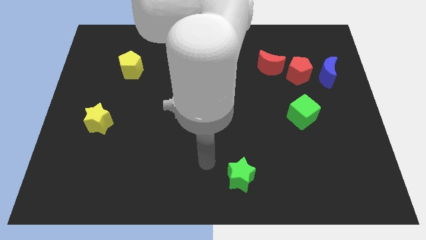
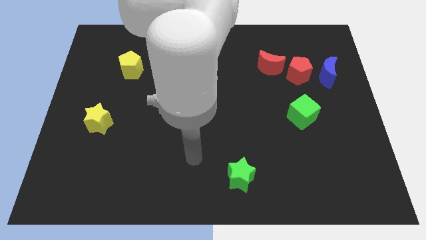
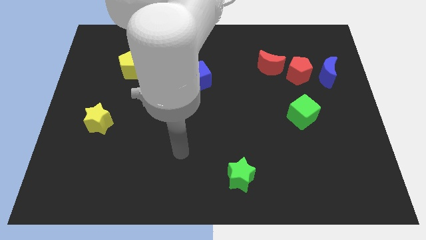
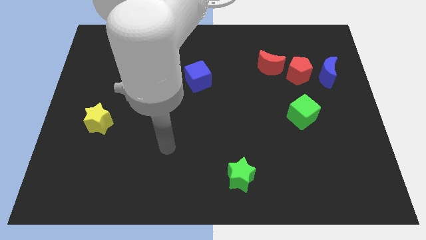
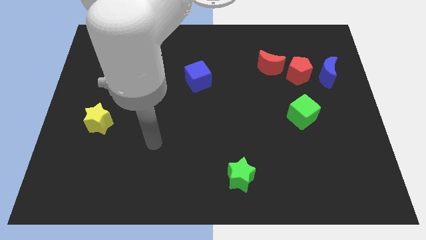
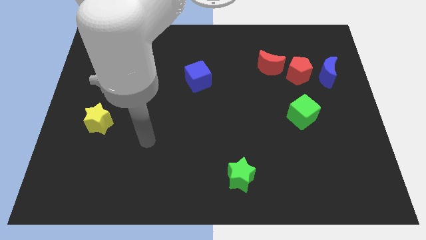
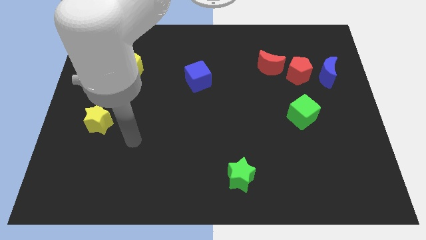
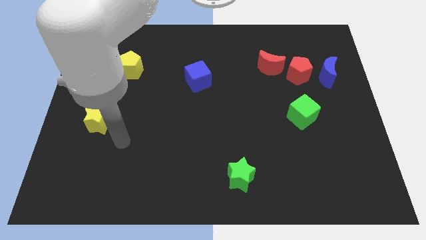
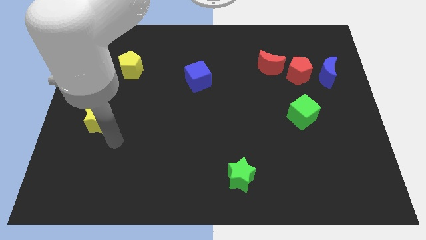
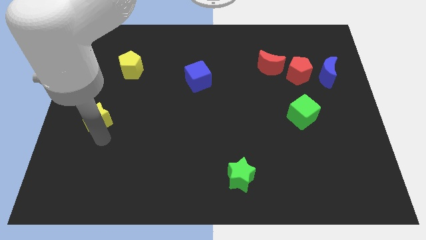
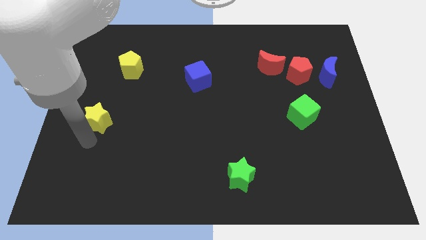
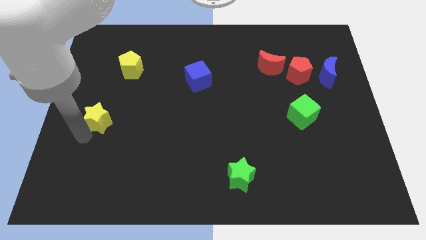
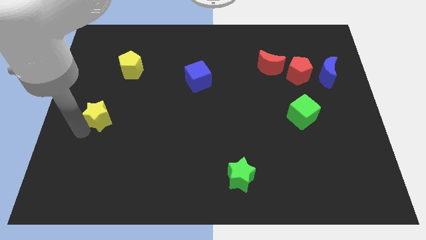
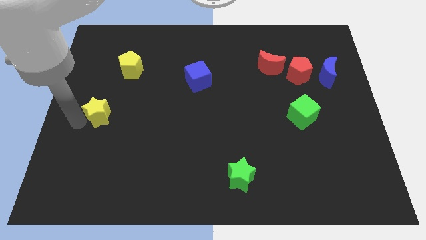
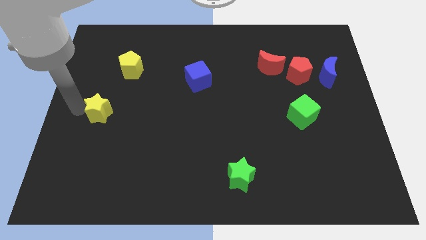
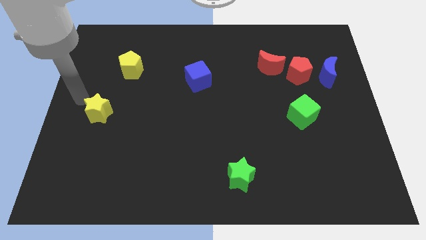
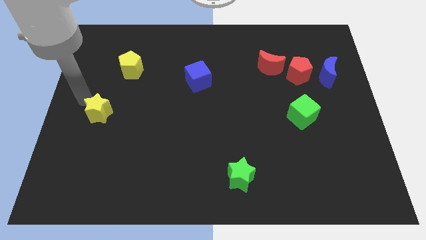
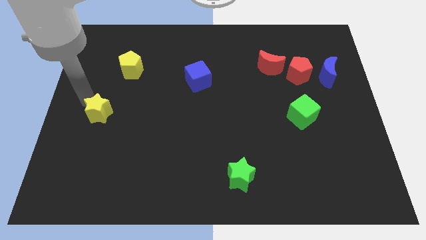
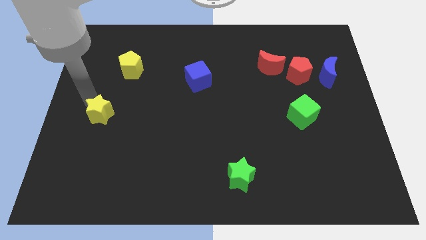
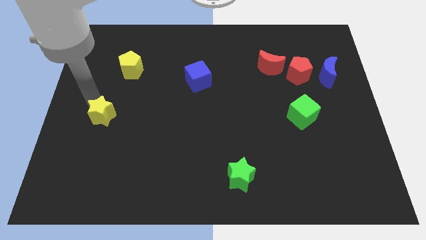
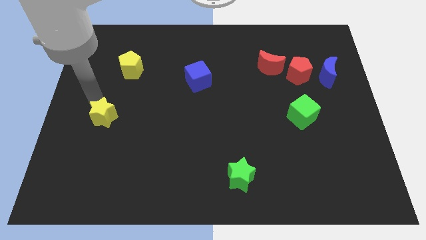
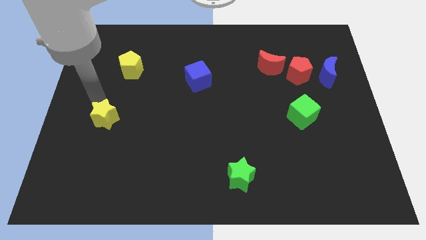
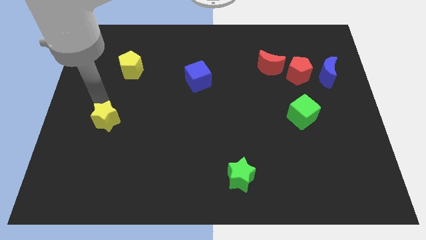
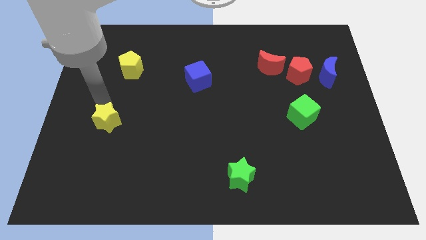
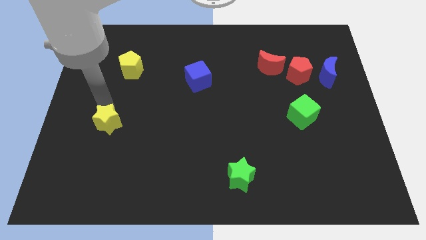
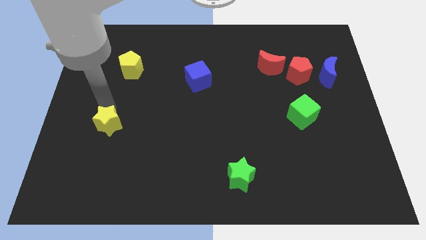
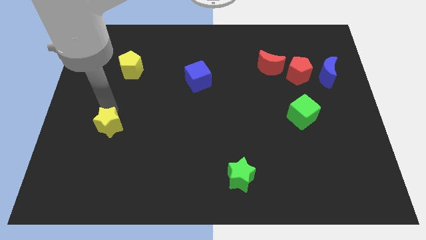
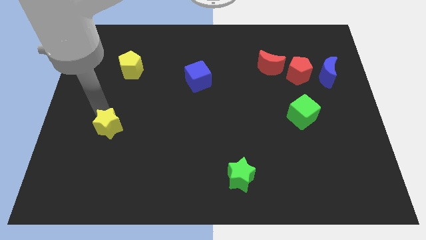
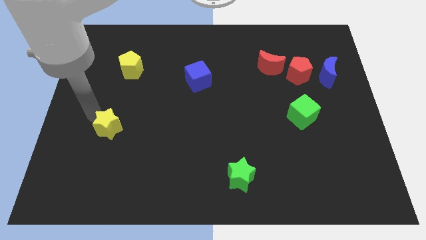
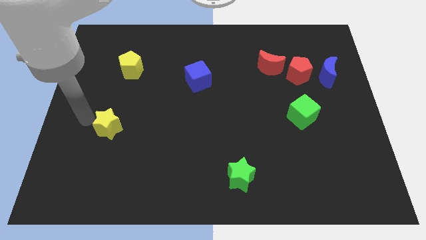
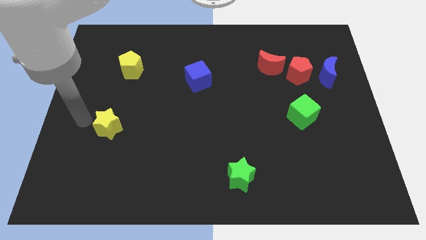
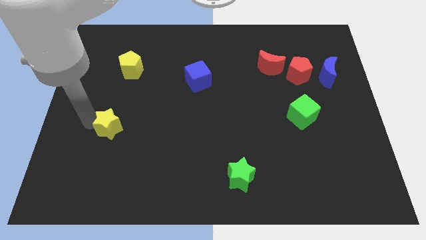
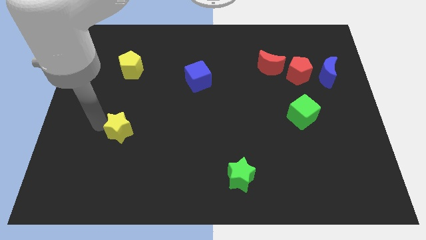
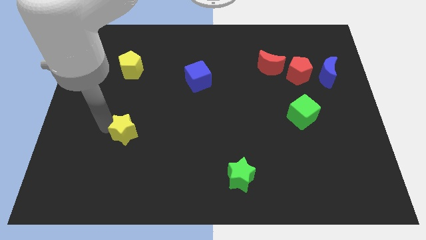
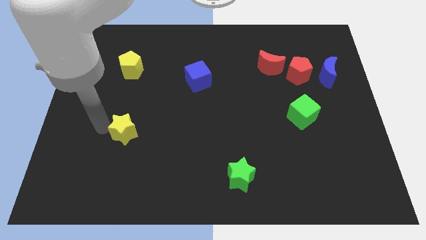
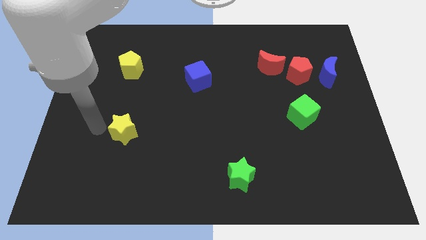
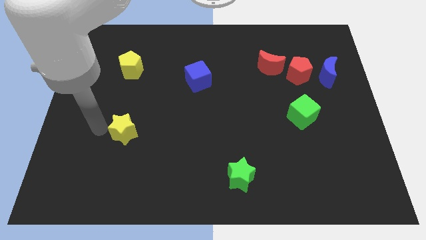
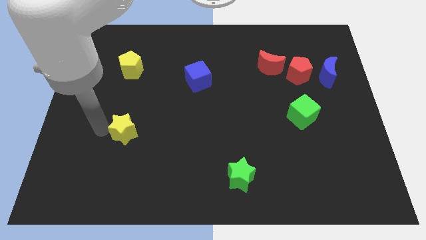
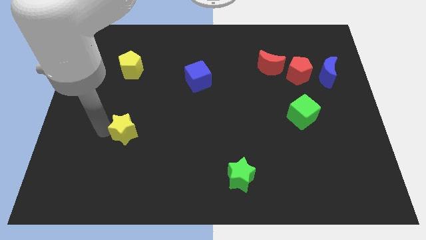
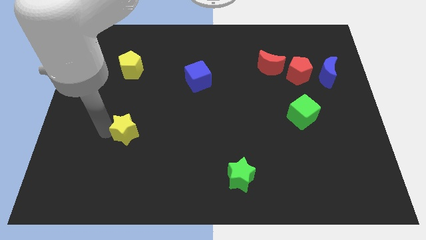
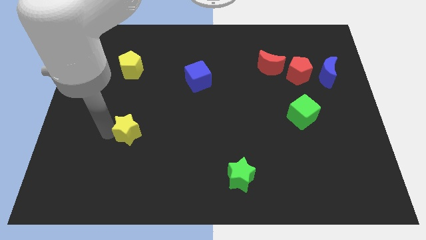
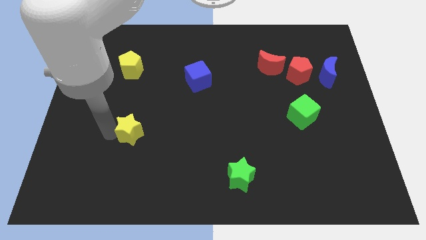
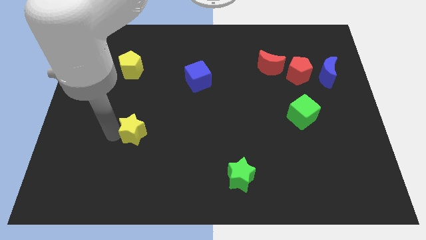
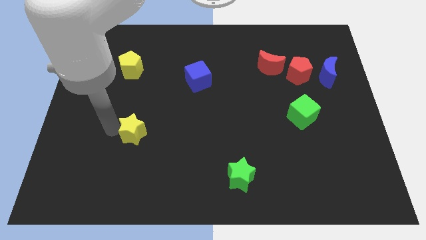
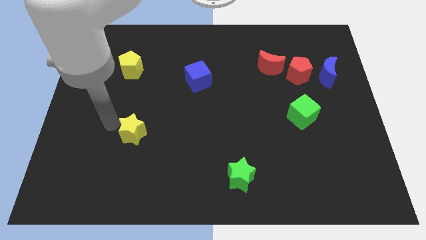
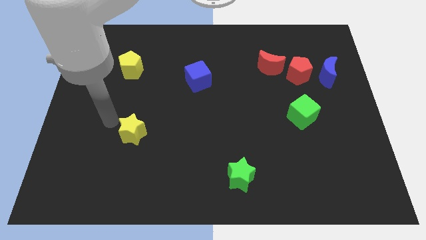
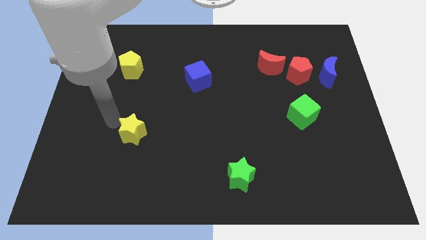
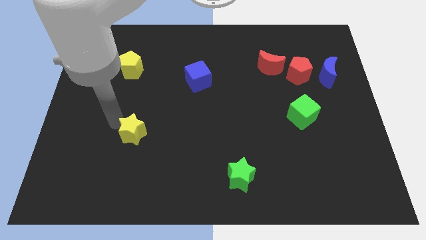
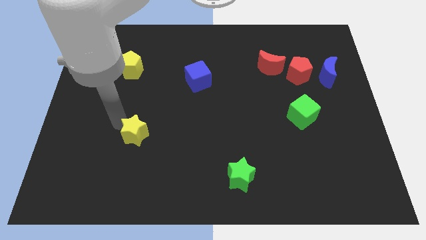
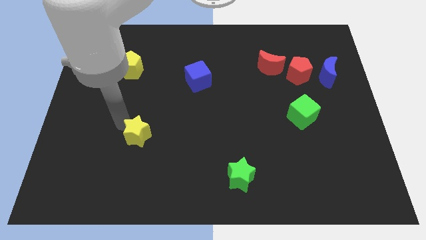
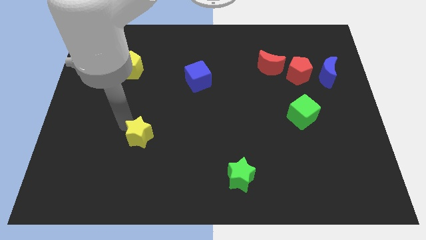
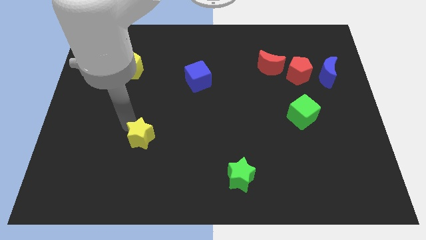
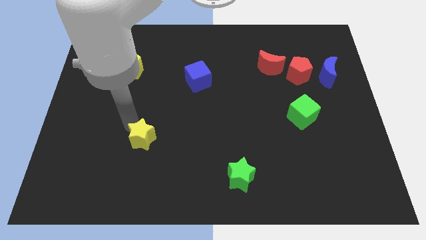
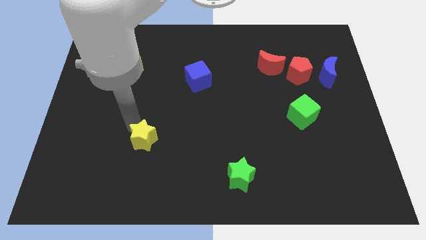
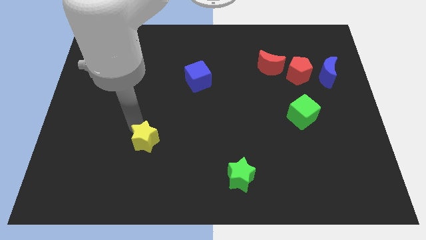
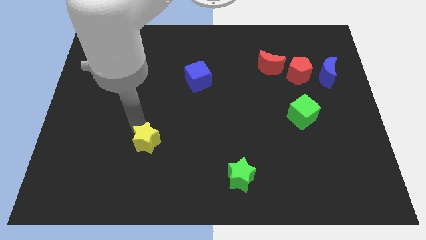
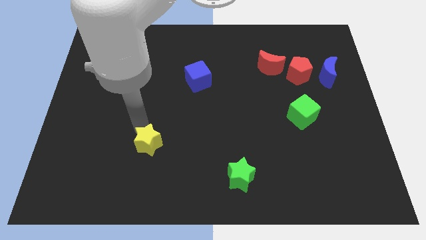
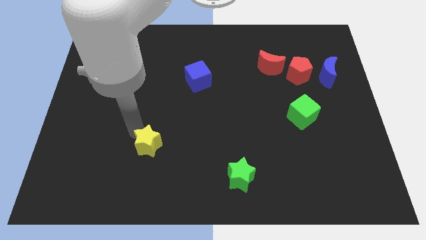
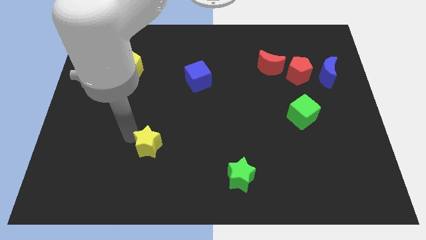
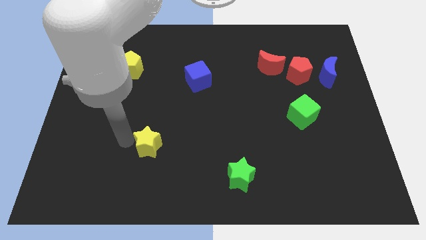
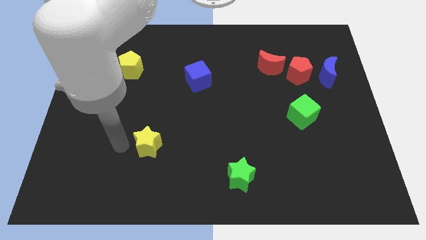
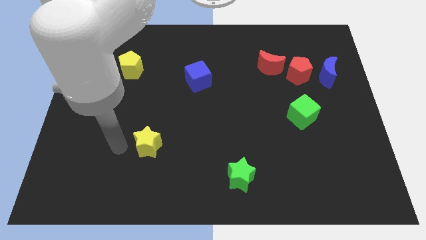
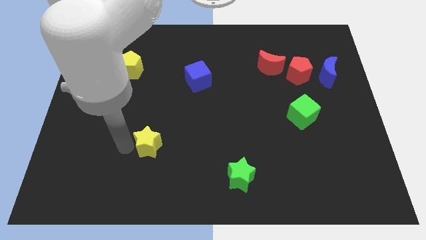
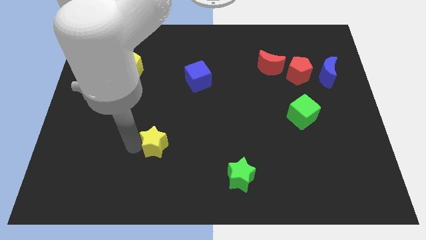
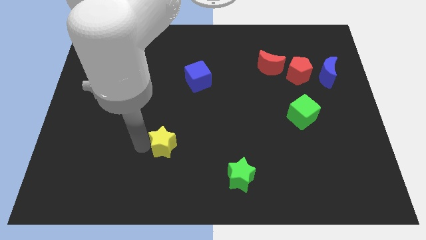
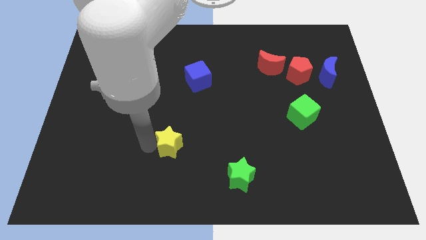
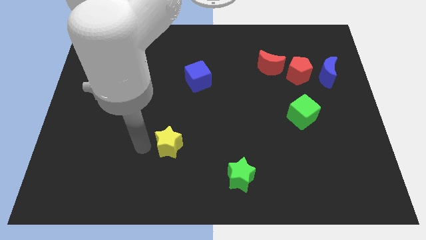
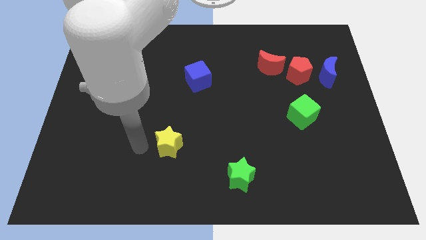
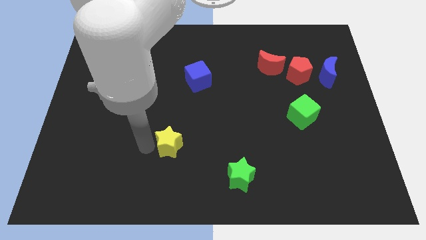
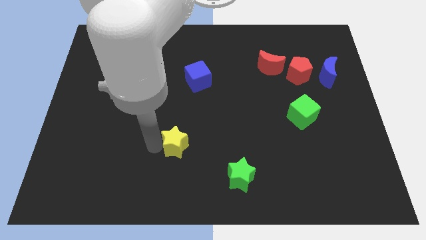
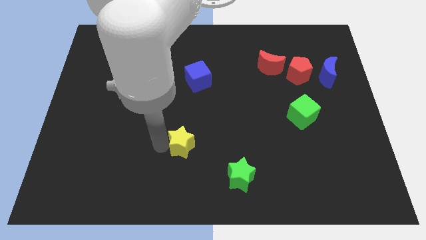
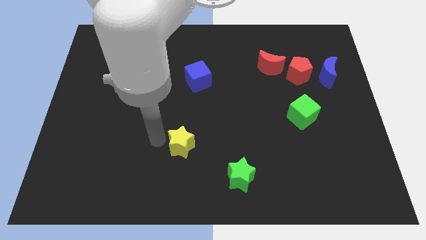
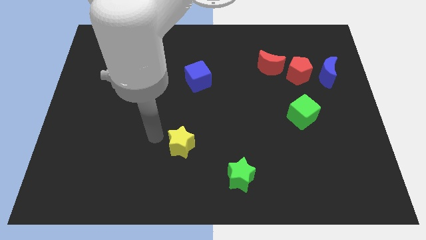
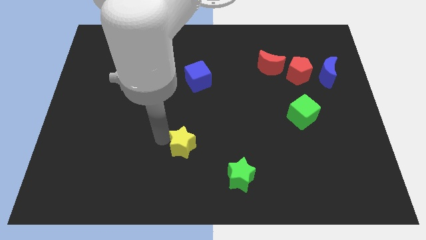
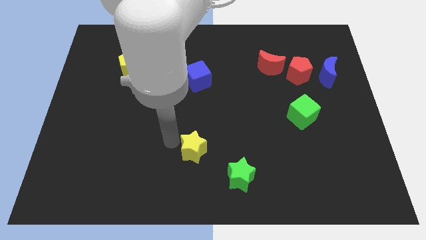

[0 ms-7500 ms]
push the yellow star to the top left side of the green star
